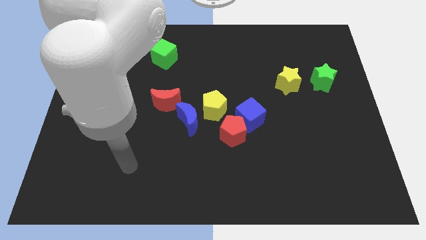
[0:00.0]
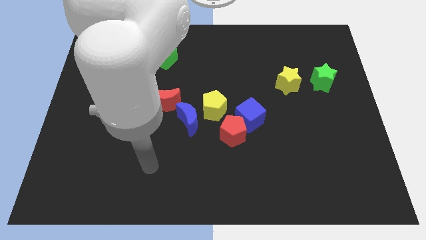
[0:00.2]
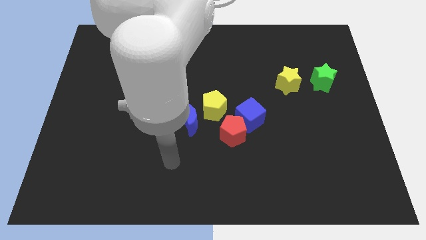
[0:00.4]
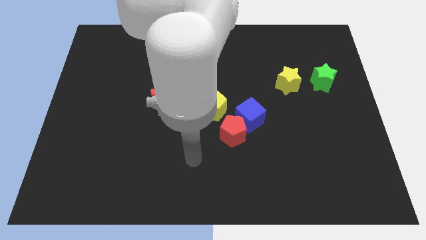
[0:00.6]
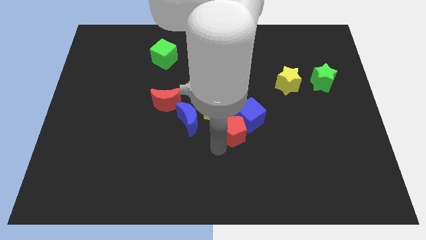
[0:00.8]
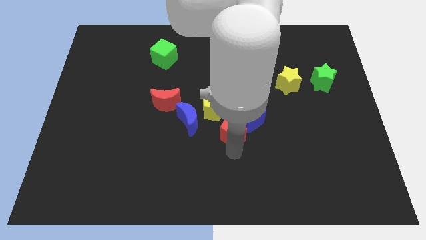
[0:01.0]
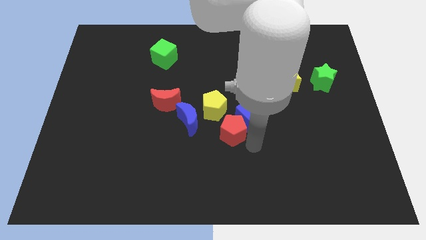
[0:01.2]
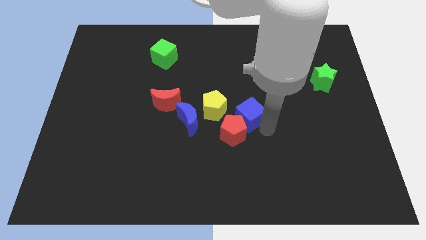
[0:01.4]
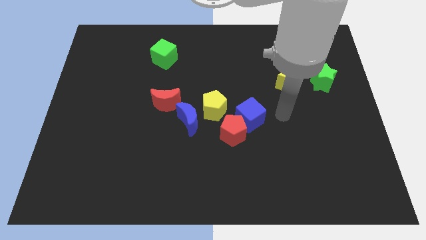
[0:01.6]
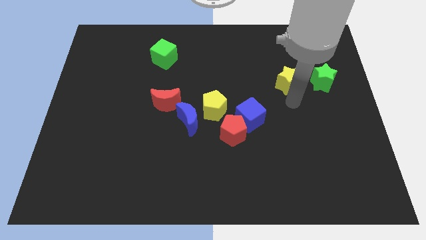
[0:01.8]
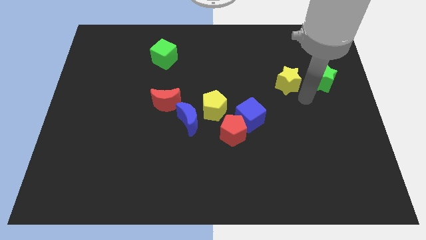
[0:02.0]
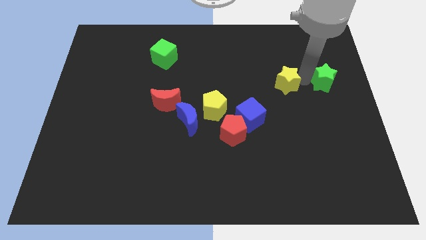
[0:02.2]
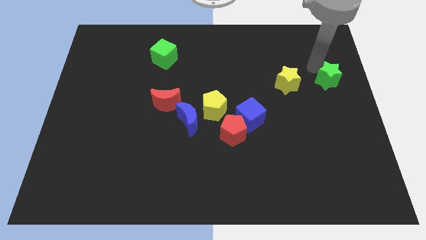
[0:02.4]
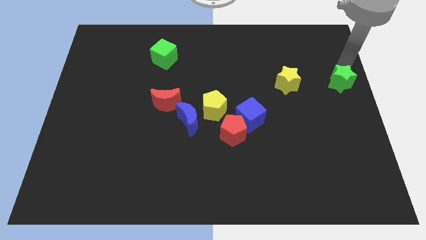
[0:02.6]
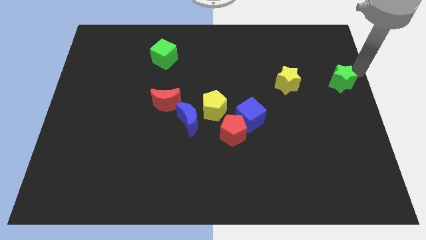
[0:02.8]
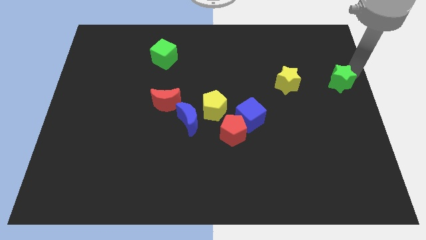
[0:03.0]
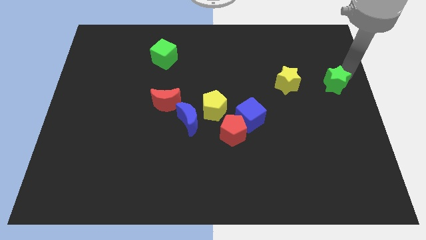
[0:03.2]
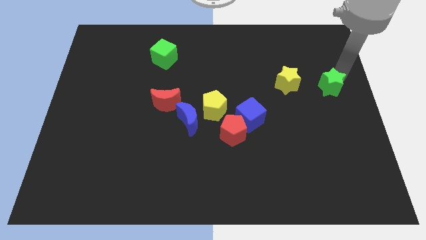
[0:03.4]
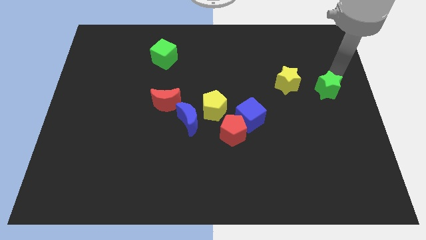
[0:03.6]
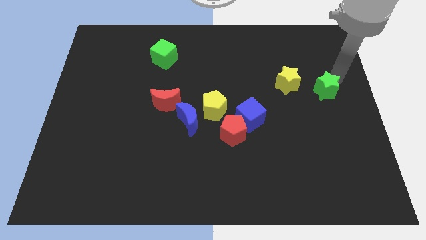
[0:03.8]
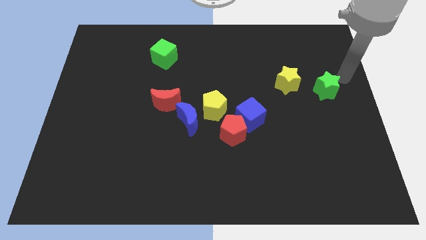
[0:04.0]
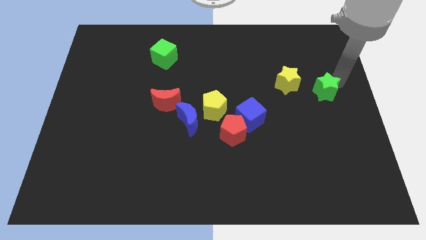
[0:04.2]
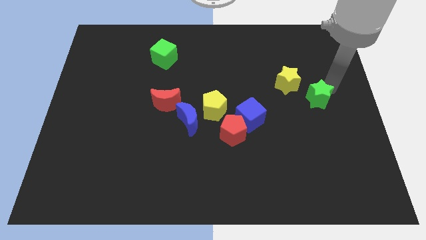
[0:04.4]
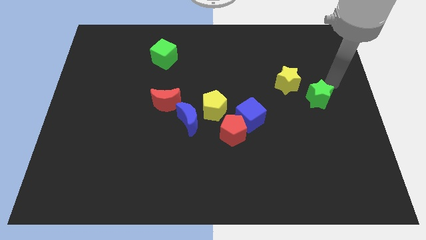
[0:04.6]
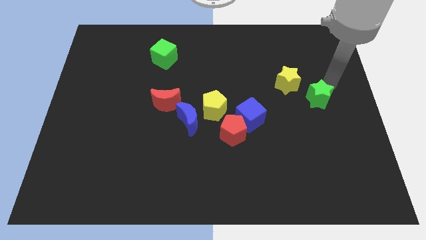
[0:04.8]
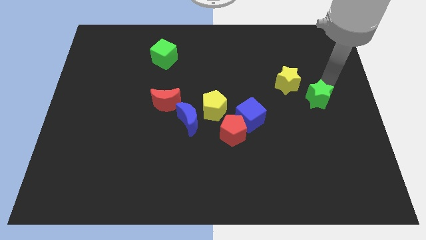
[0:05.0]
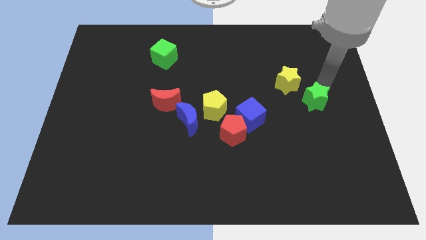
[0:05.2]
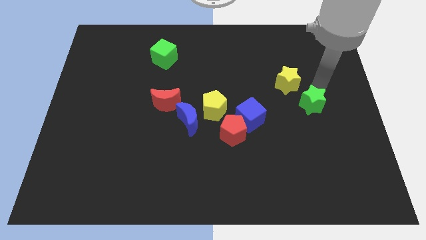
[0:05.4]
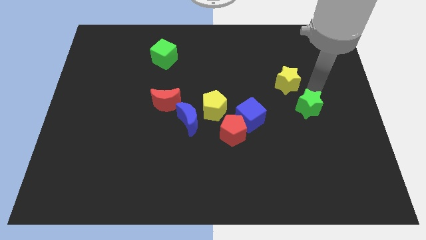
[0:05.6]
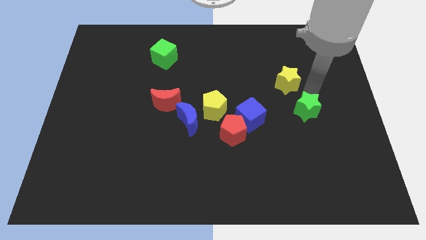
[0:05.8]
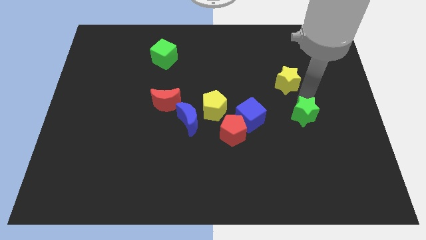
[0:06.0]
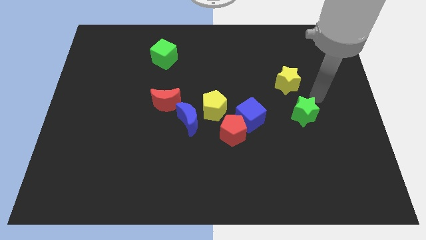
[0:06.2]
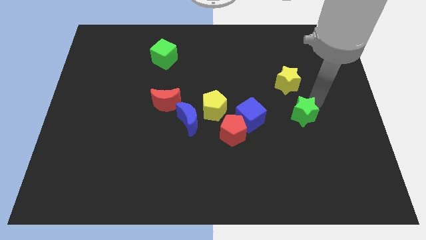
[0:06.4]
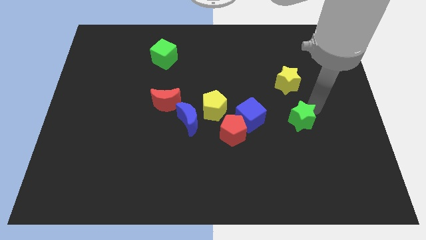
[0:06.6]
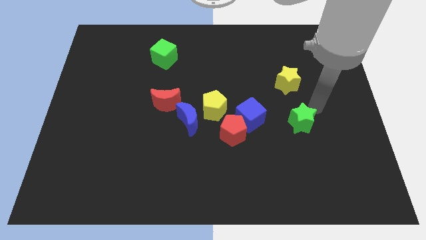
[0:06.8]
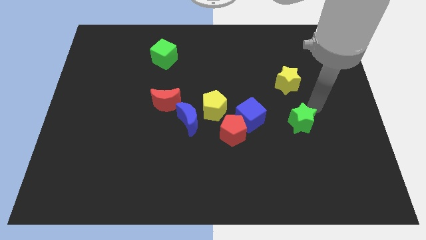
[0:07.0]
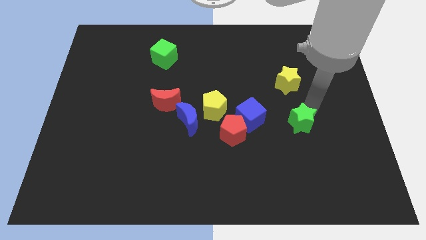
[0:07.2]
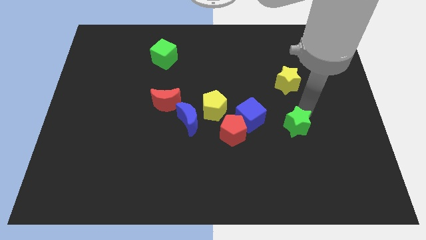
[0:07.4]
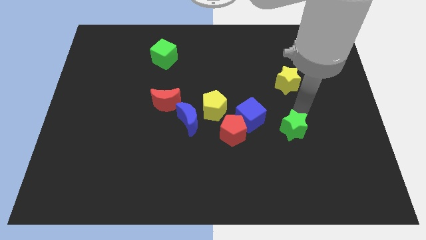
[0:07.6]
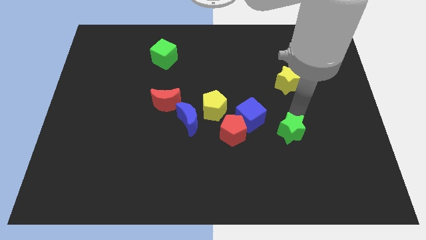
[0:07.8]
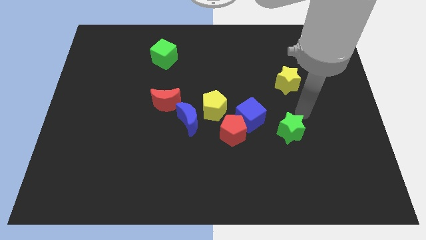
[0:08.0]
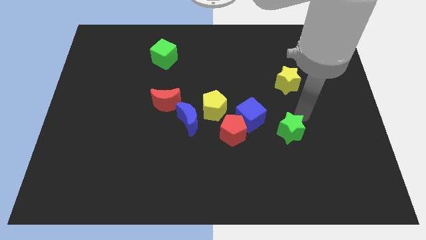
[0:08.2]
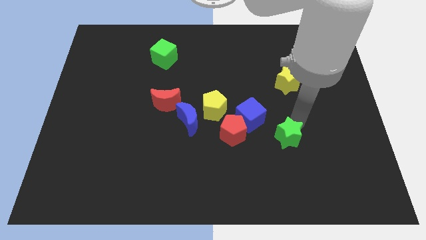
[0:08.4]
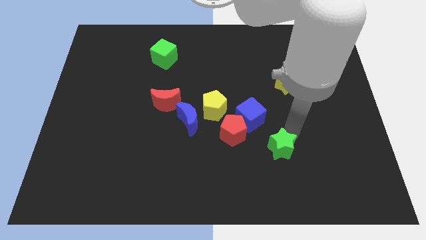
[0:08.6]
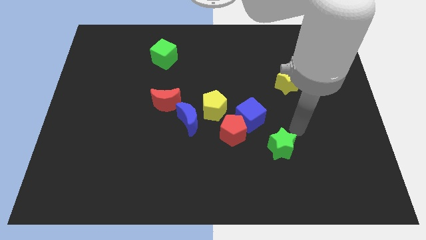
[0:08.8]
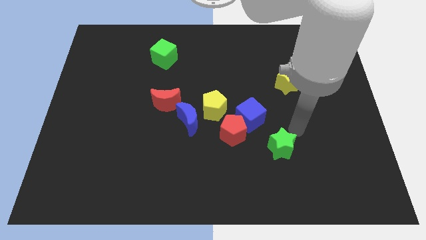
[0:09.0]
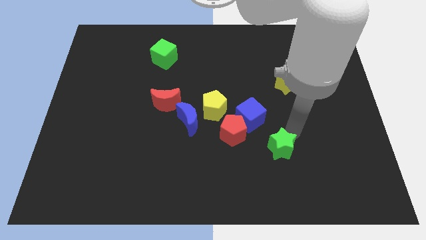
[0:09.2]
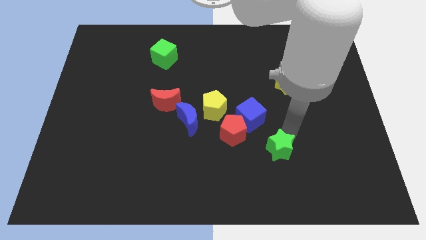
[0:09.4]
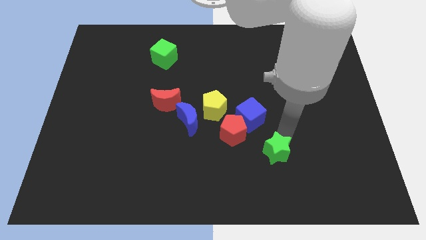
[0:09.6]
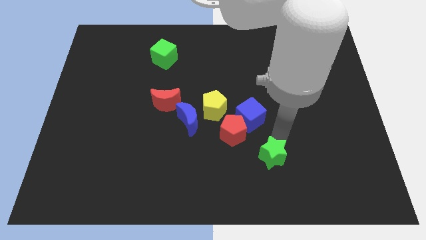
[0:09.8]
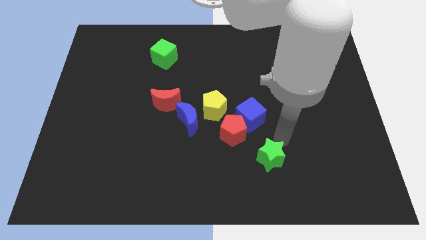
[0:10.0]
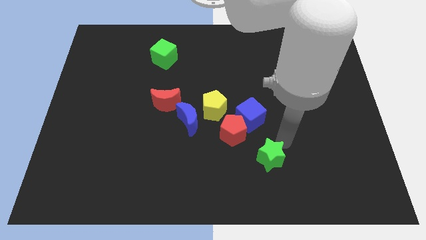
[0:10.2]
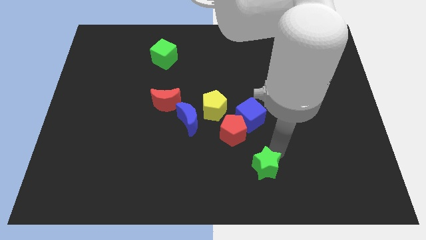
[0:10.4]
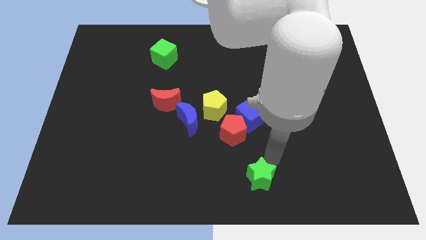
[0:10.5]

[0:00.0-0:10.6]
push the green star to the bottom

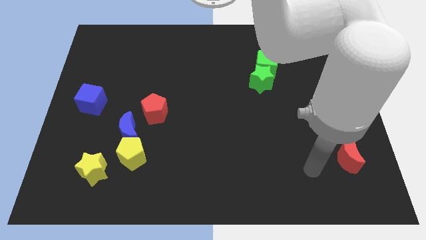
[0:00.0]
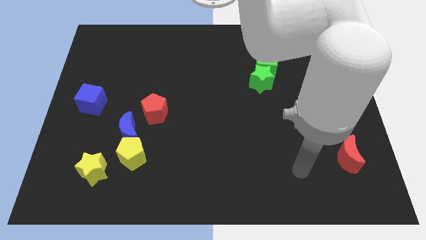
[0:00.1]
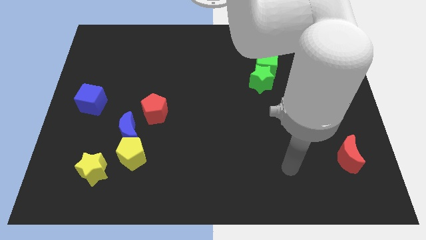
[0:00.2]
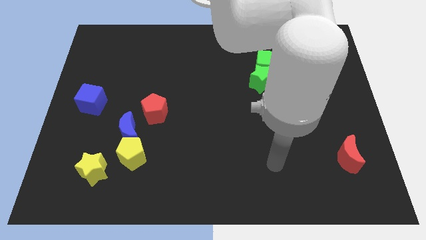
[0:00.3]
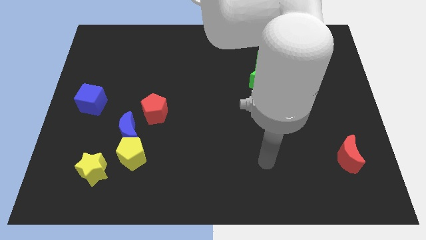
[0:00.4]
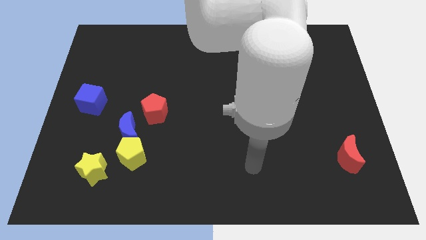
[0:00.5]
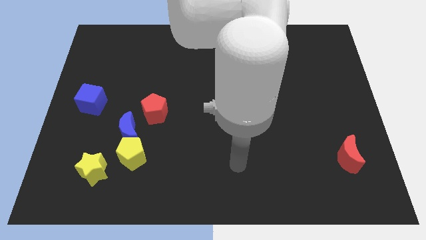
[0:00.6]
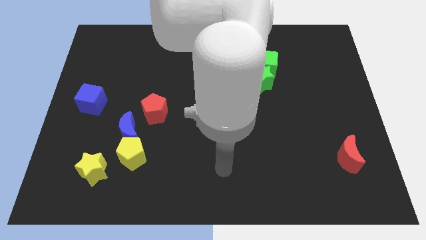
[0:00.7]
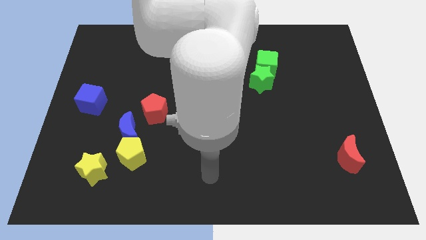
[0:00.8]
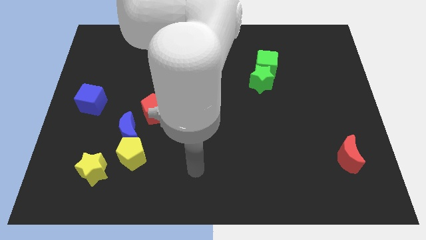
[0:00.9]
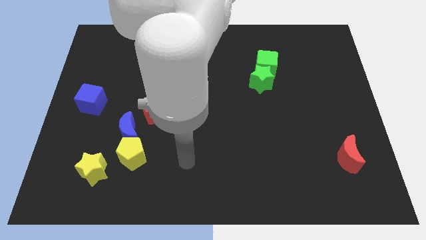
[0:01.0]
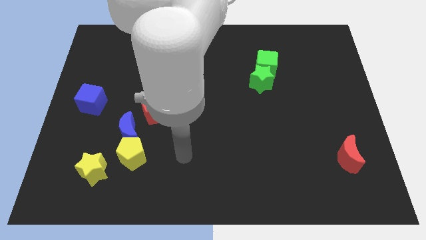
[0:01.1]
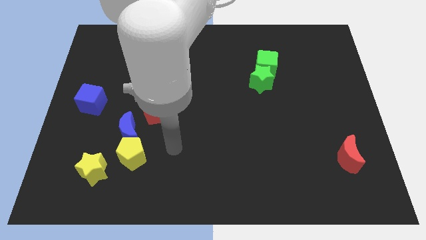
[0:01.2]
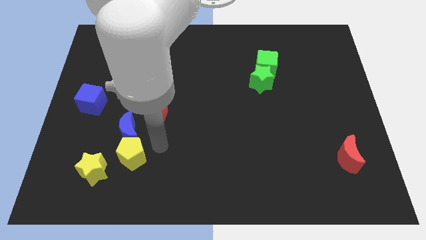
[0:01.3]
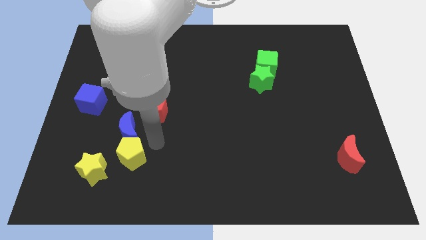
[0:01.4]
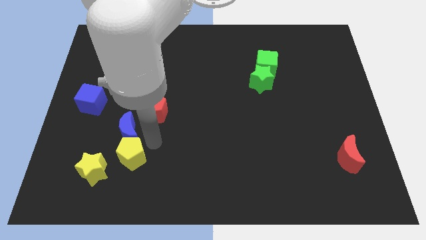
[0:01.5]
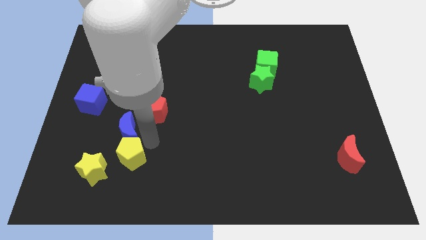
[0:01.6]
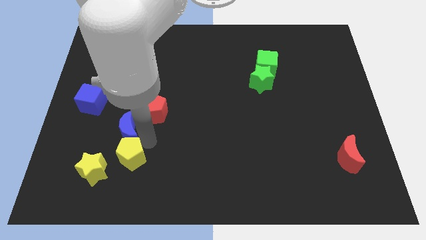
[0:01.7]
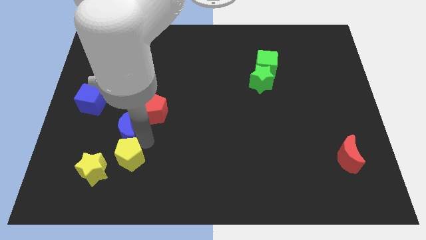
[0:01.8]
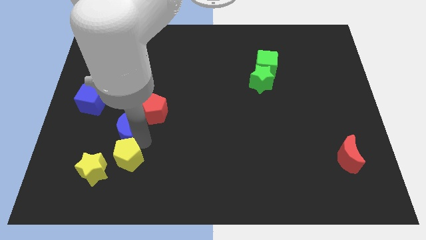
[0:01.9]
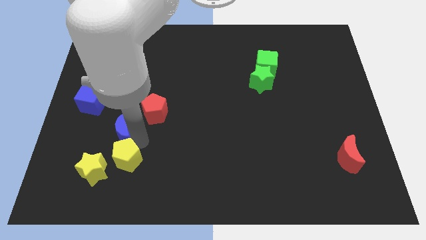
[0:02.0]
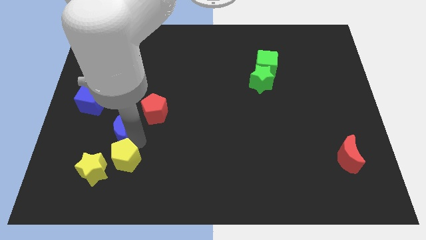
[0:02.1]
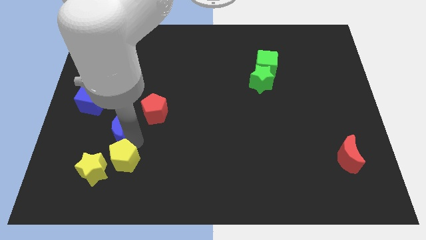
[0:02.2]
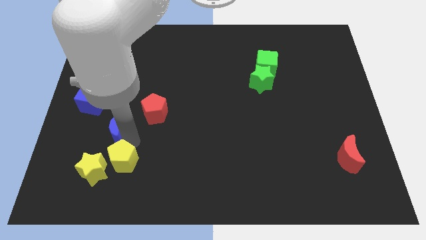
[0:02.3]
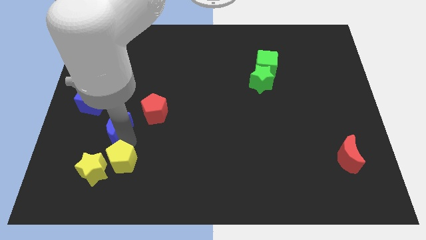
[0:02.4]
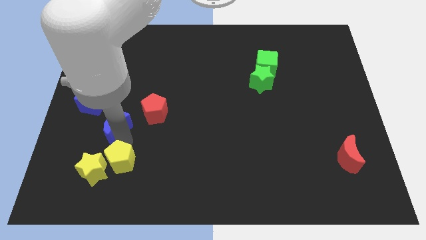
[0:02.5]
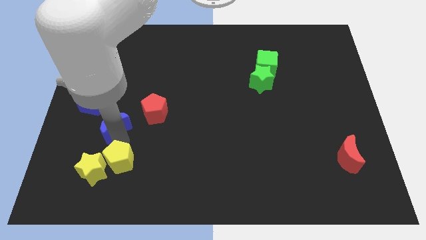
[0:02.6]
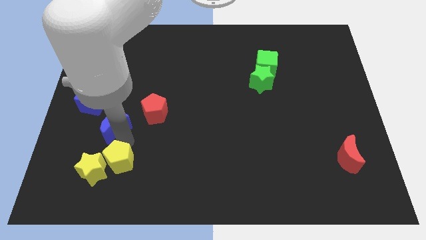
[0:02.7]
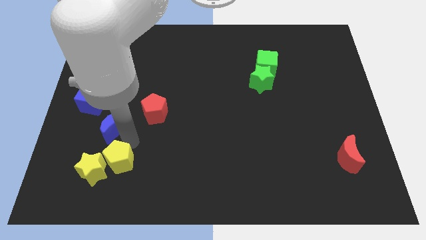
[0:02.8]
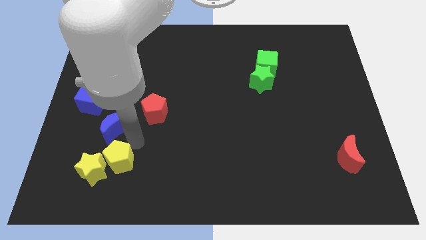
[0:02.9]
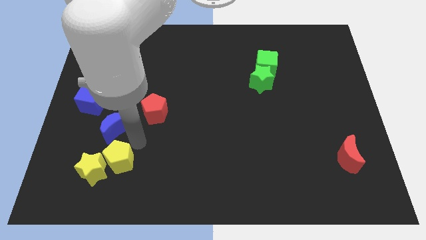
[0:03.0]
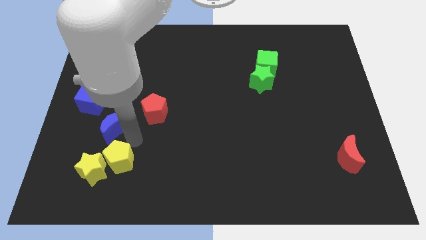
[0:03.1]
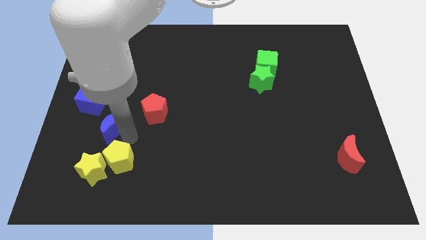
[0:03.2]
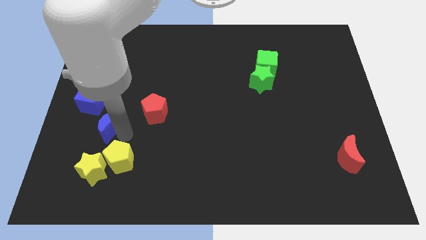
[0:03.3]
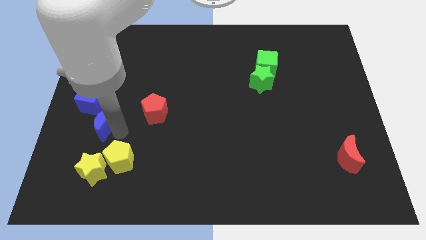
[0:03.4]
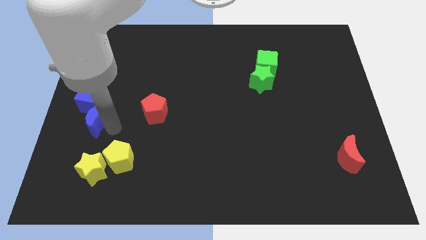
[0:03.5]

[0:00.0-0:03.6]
move the blue moon to the center left
